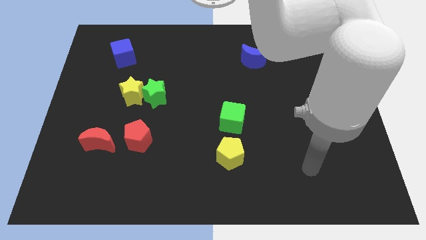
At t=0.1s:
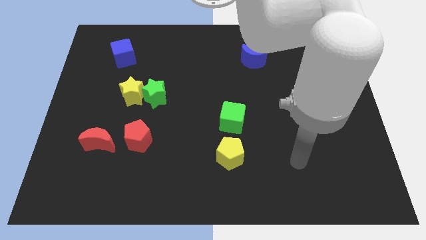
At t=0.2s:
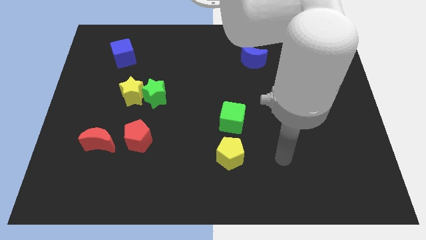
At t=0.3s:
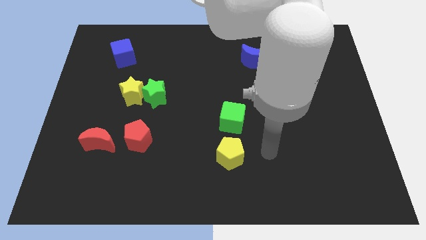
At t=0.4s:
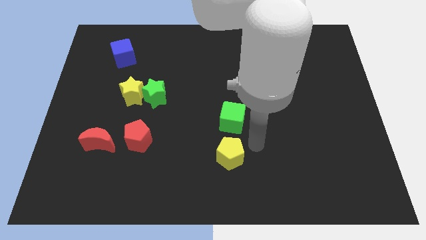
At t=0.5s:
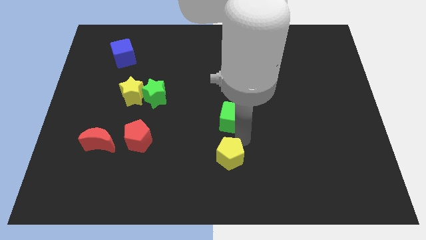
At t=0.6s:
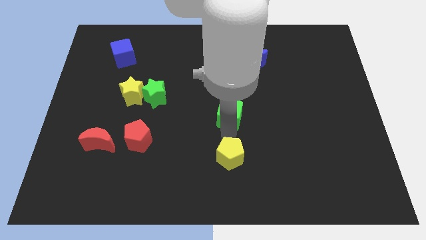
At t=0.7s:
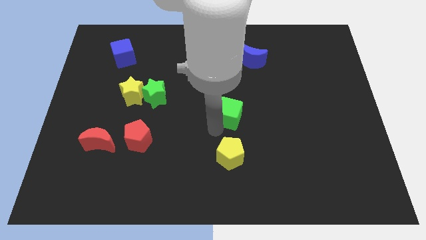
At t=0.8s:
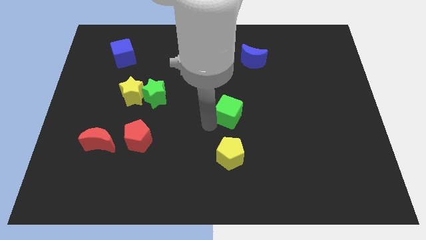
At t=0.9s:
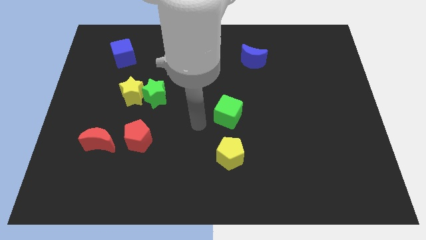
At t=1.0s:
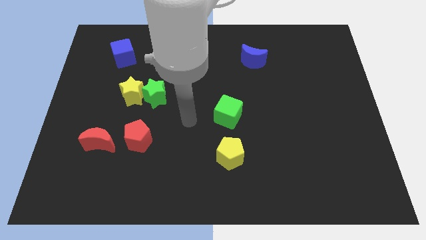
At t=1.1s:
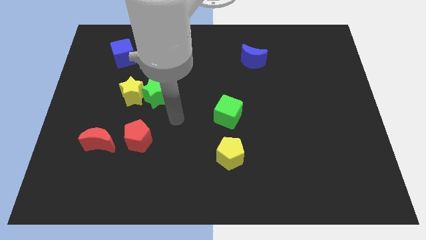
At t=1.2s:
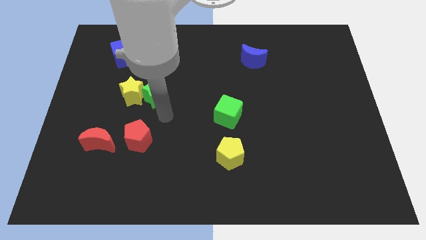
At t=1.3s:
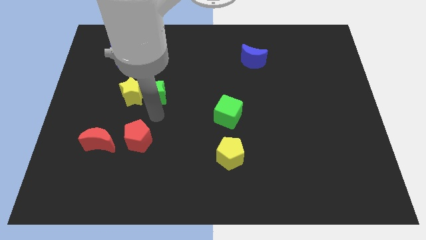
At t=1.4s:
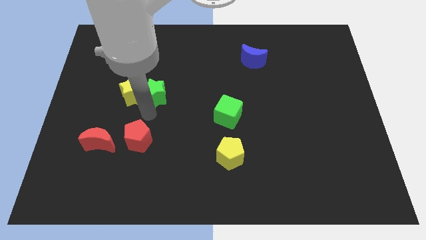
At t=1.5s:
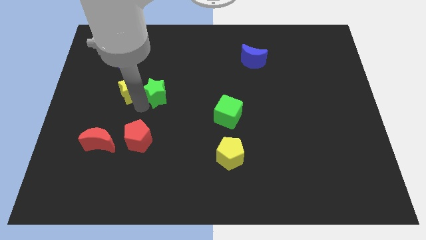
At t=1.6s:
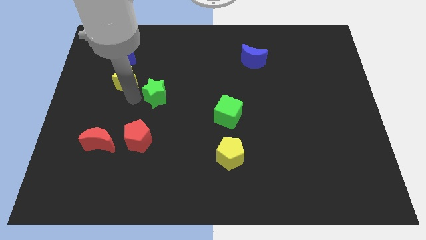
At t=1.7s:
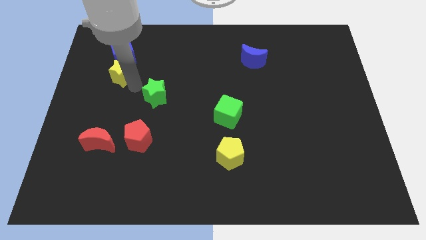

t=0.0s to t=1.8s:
move the green star away from the yellow star

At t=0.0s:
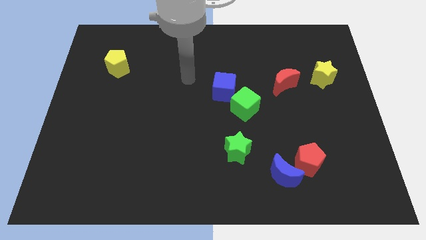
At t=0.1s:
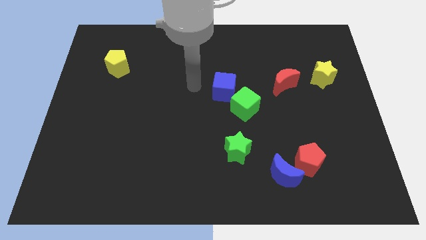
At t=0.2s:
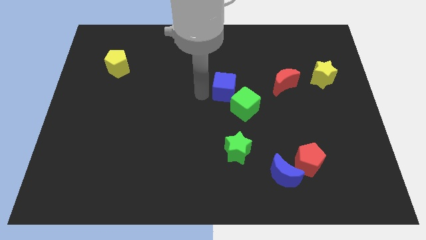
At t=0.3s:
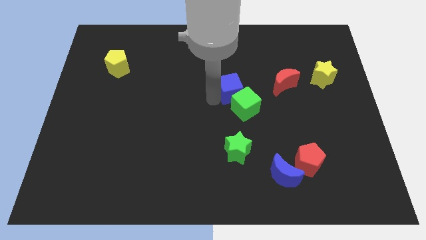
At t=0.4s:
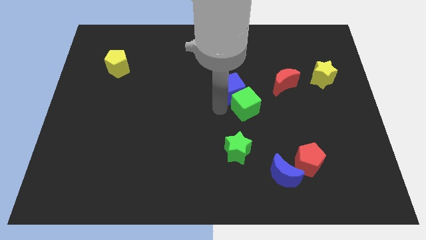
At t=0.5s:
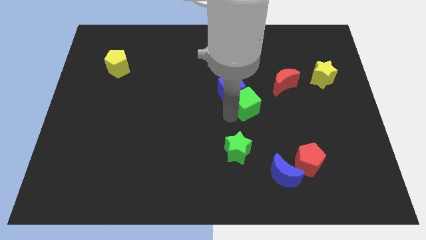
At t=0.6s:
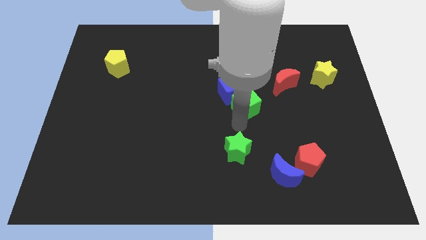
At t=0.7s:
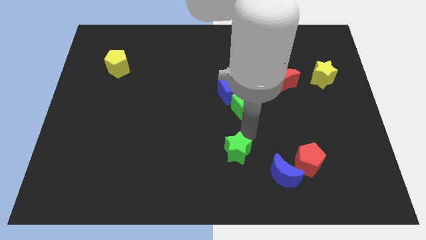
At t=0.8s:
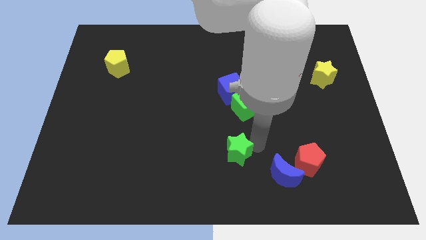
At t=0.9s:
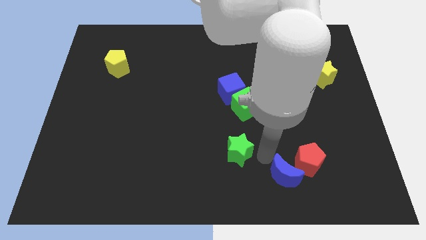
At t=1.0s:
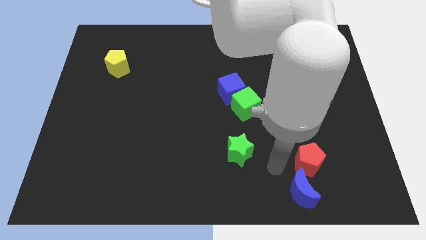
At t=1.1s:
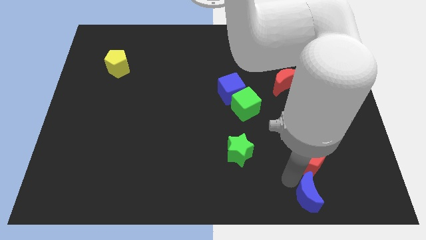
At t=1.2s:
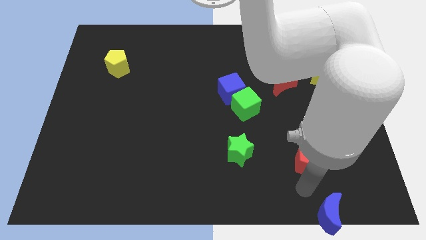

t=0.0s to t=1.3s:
pull the red pentagon apart from the blue moon

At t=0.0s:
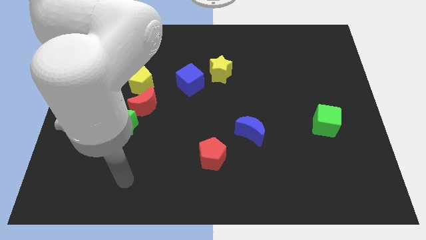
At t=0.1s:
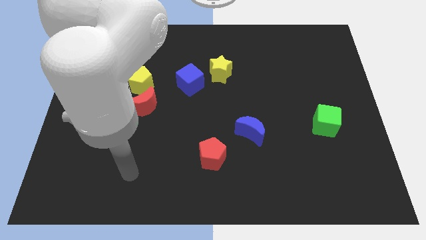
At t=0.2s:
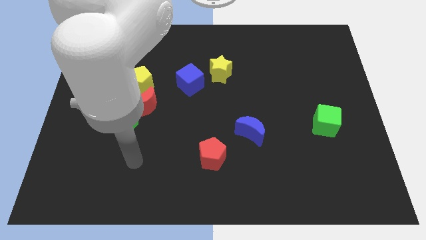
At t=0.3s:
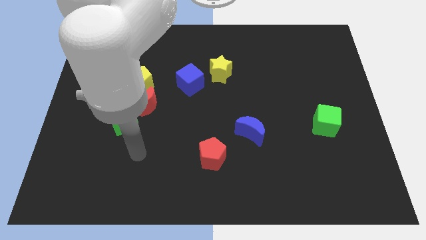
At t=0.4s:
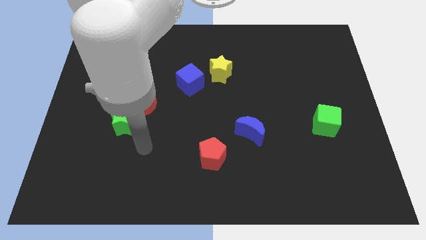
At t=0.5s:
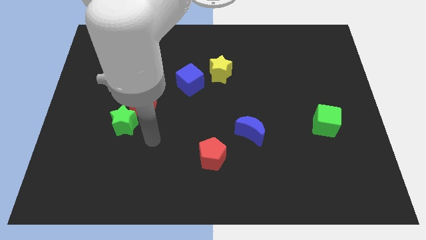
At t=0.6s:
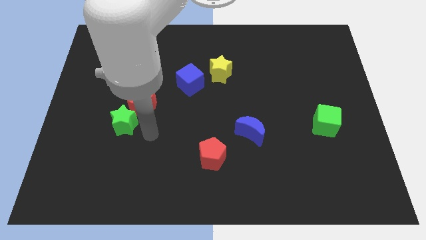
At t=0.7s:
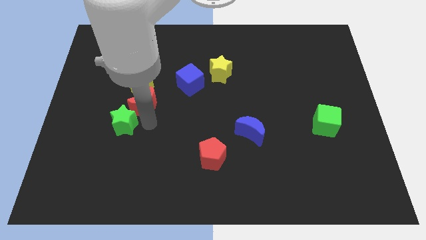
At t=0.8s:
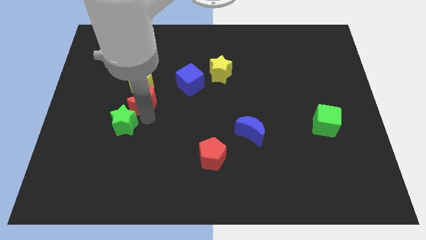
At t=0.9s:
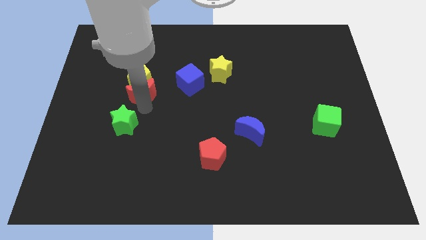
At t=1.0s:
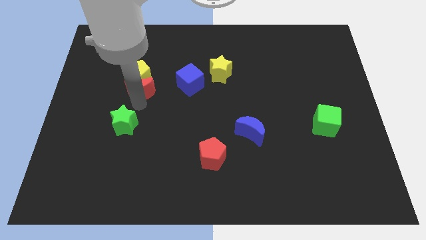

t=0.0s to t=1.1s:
separate the green star from the red moon

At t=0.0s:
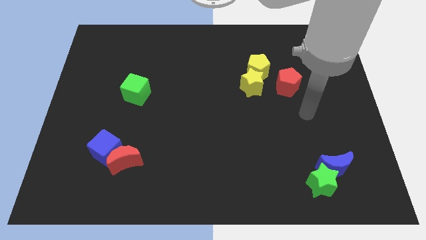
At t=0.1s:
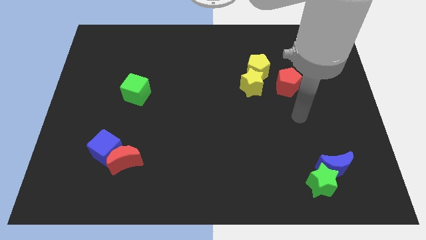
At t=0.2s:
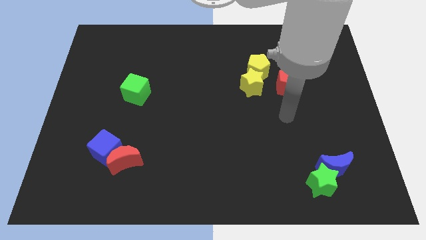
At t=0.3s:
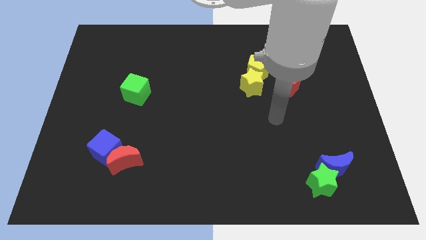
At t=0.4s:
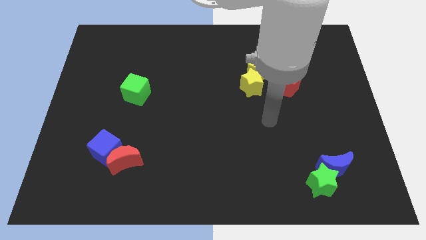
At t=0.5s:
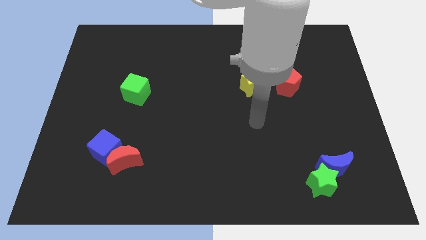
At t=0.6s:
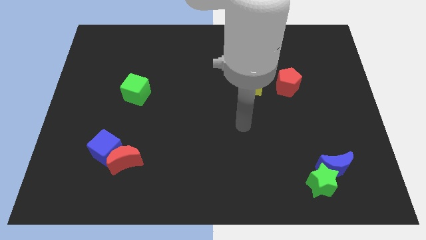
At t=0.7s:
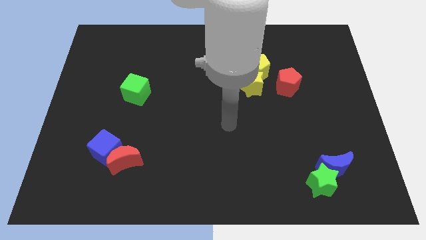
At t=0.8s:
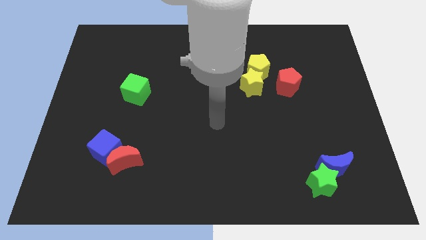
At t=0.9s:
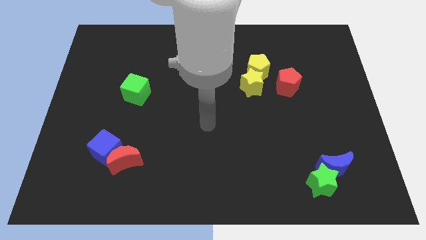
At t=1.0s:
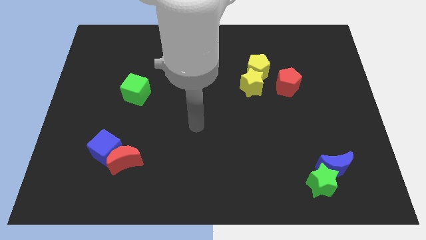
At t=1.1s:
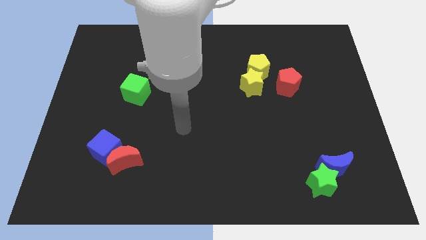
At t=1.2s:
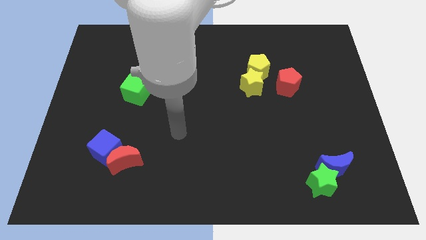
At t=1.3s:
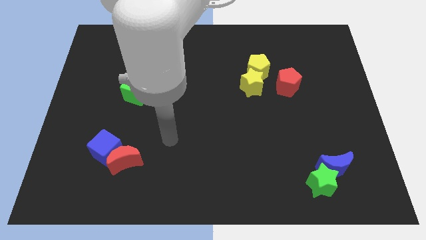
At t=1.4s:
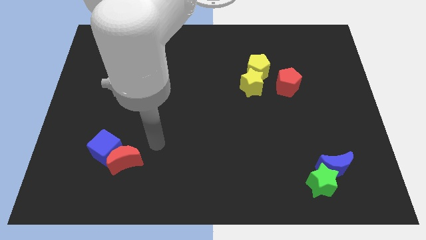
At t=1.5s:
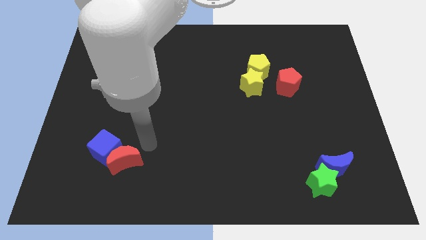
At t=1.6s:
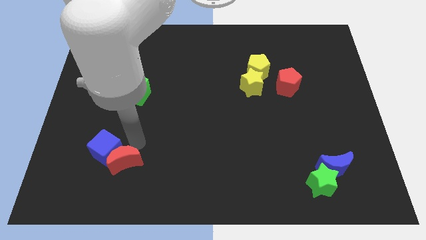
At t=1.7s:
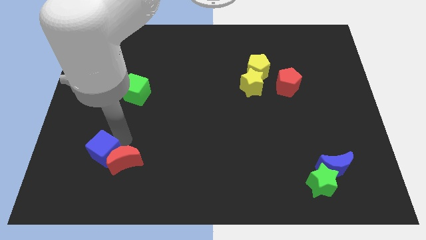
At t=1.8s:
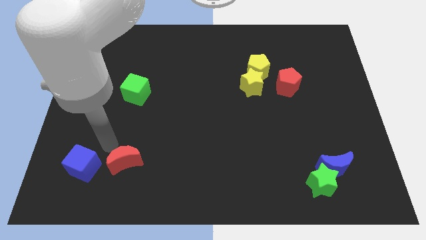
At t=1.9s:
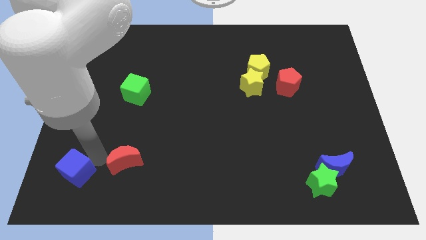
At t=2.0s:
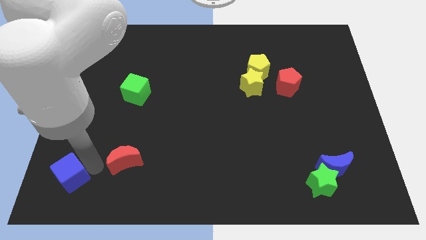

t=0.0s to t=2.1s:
separate the red moon from the blue cube

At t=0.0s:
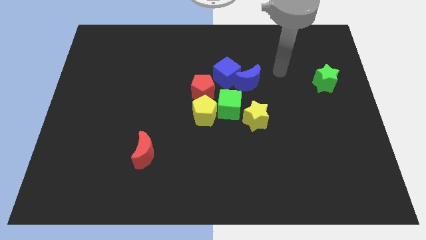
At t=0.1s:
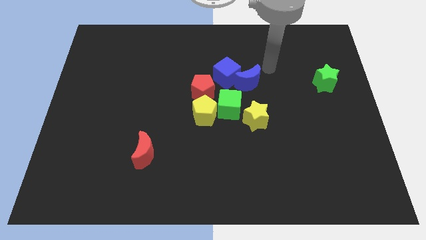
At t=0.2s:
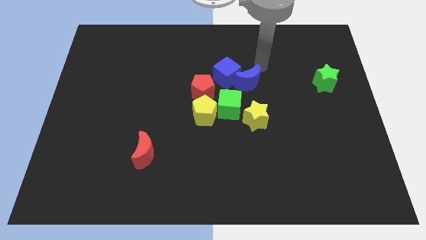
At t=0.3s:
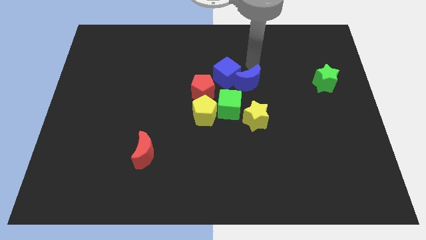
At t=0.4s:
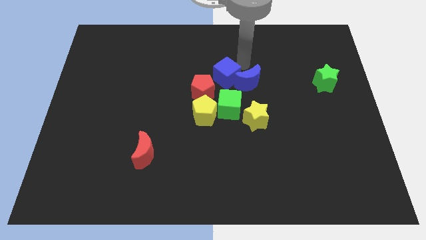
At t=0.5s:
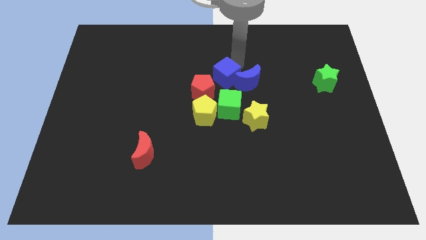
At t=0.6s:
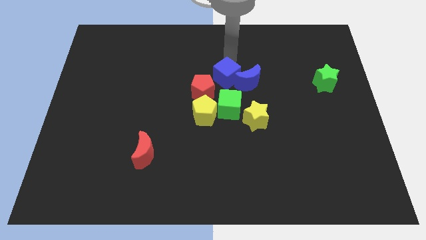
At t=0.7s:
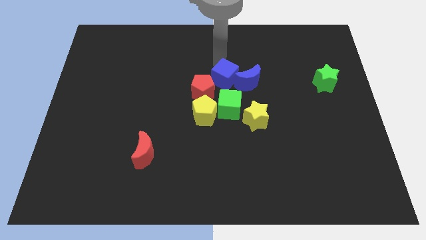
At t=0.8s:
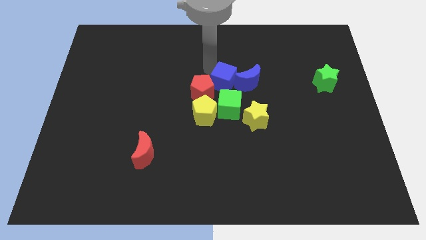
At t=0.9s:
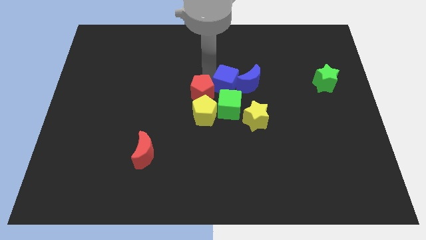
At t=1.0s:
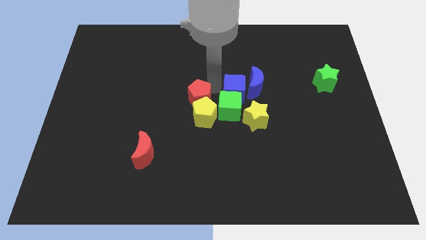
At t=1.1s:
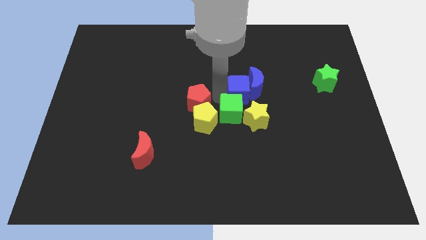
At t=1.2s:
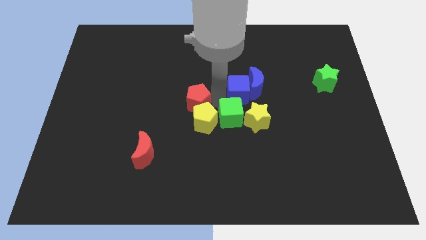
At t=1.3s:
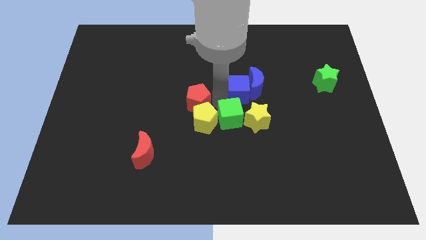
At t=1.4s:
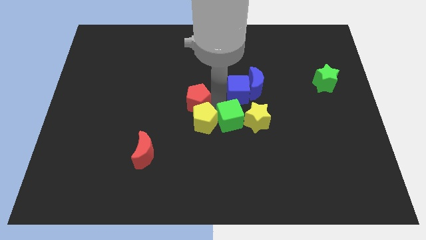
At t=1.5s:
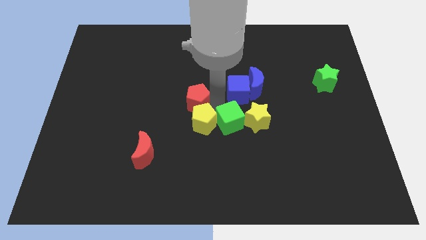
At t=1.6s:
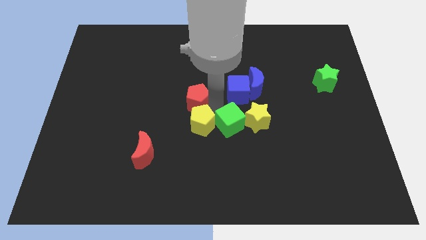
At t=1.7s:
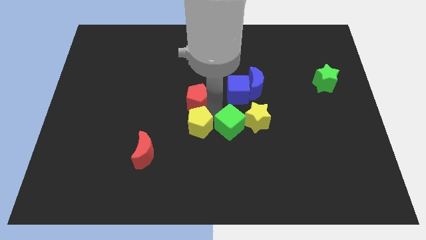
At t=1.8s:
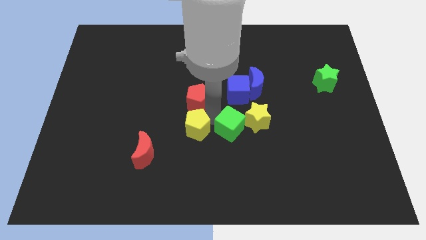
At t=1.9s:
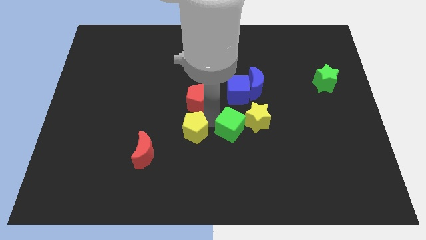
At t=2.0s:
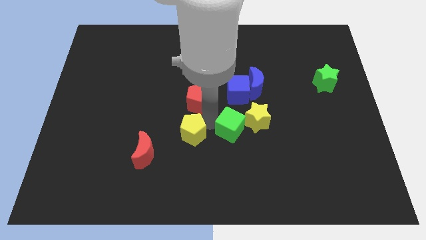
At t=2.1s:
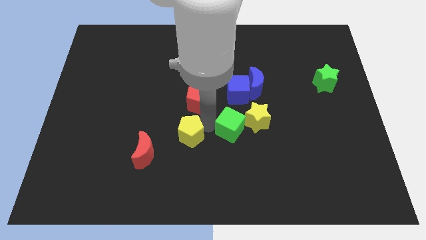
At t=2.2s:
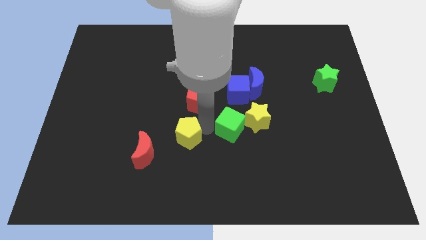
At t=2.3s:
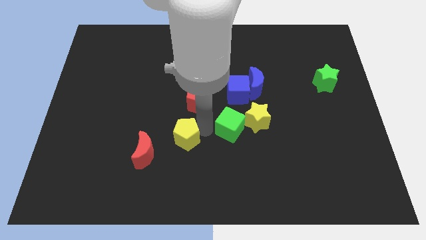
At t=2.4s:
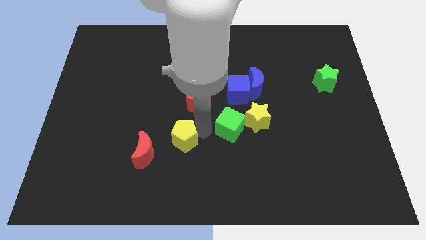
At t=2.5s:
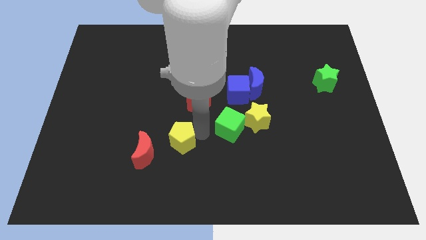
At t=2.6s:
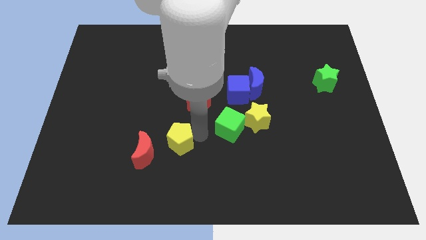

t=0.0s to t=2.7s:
pull the yellow pentagon apart from the green cube and red pentagon

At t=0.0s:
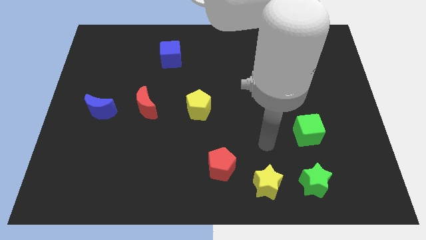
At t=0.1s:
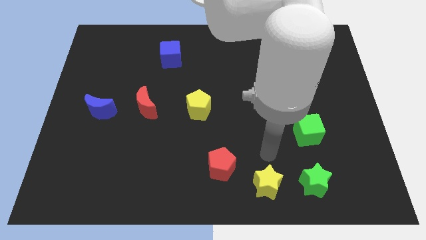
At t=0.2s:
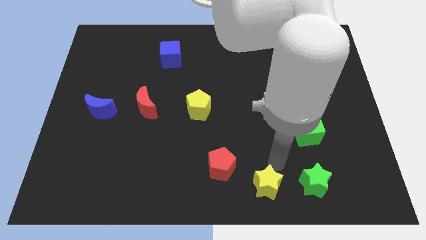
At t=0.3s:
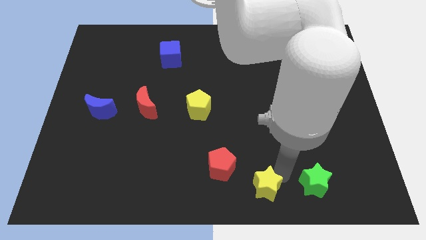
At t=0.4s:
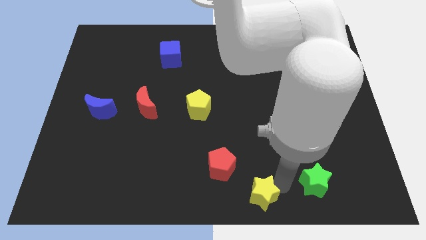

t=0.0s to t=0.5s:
separate the green star from the yellow star
